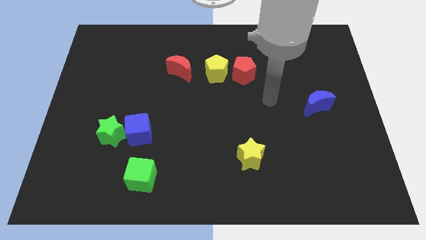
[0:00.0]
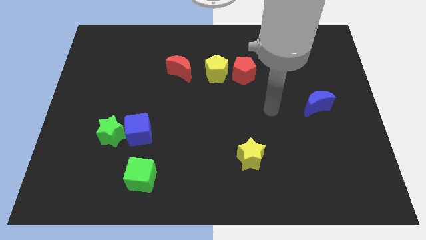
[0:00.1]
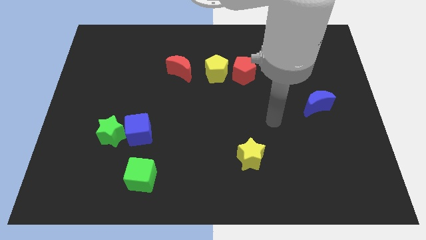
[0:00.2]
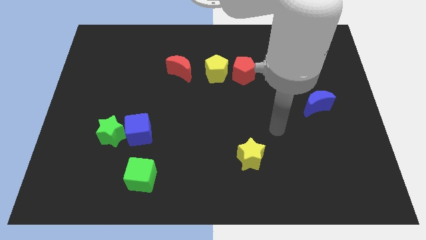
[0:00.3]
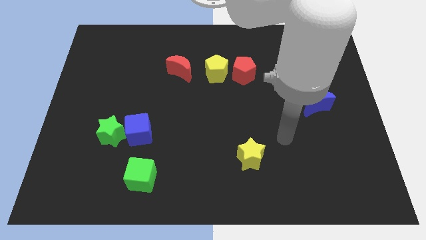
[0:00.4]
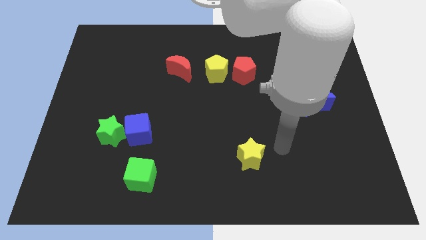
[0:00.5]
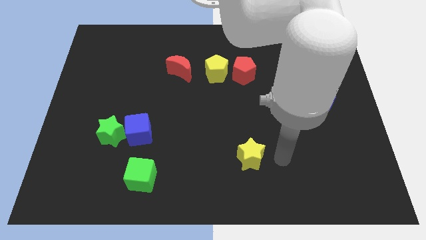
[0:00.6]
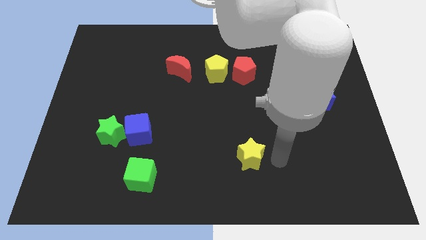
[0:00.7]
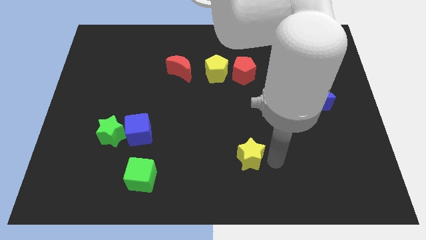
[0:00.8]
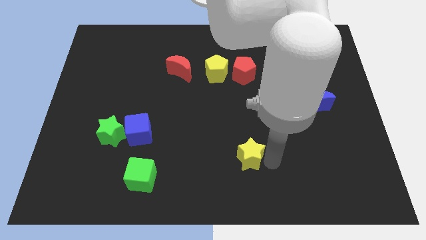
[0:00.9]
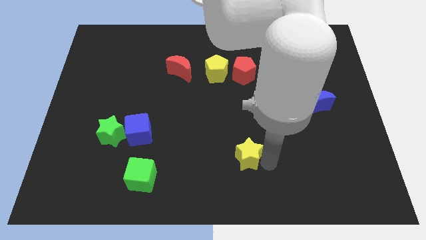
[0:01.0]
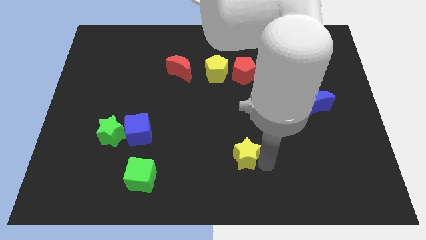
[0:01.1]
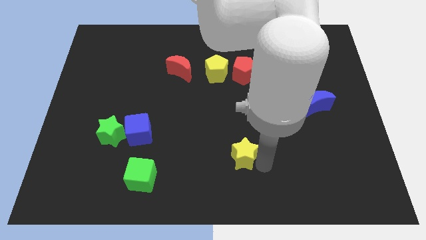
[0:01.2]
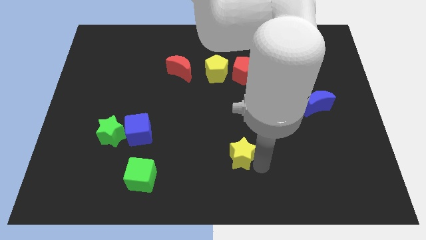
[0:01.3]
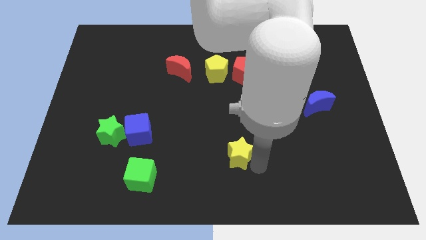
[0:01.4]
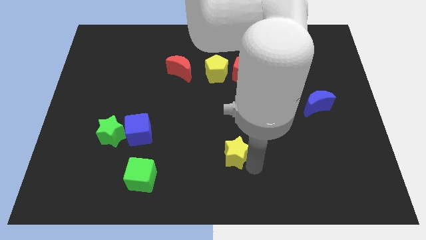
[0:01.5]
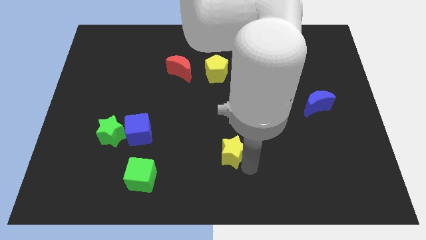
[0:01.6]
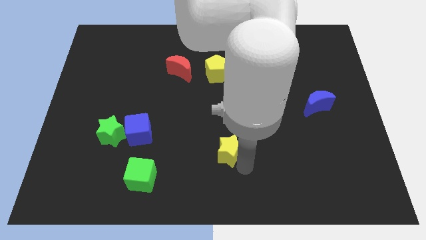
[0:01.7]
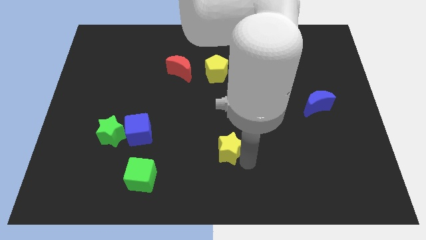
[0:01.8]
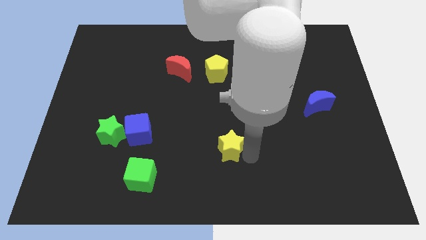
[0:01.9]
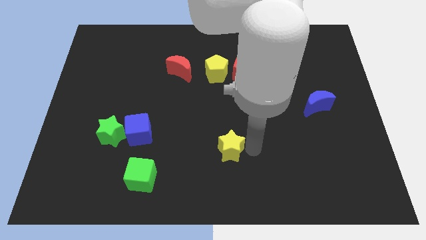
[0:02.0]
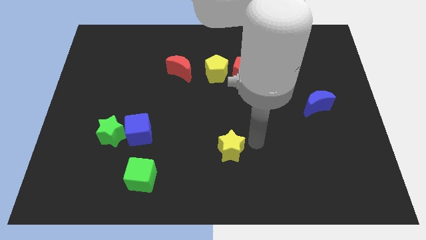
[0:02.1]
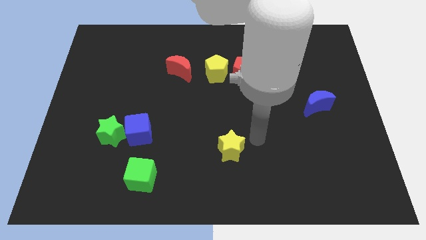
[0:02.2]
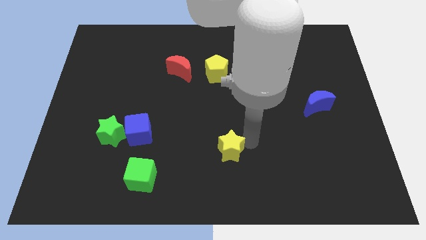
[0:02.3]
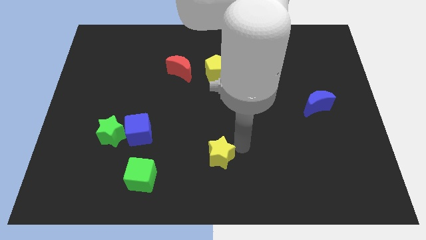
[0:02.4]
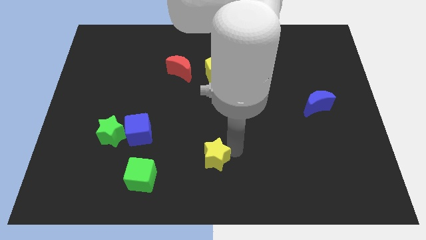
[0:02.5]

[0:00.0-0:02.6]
slightly slide the yellow star left

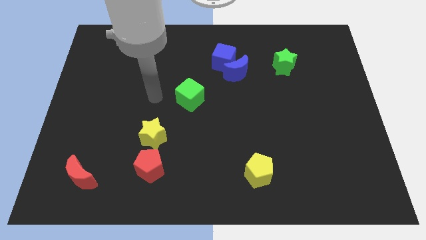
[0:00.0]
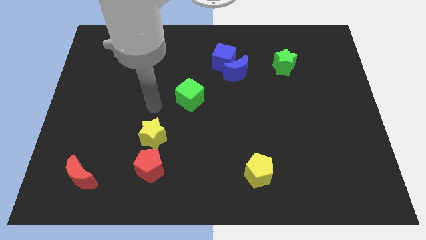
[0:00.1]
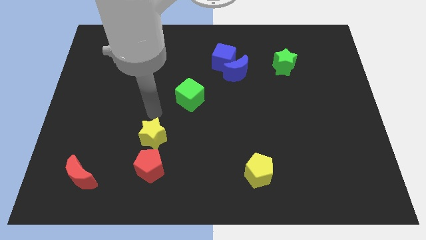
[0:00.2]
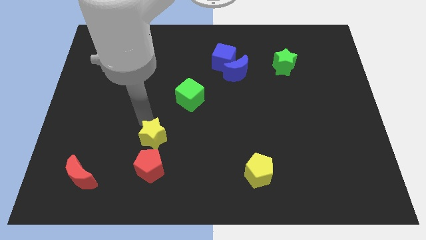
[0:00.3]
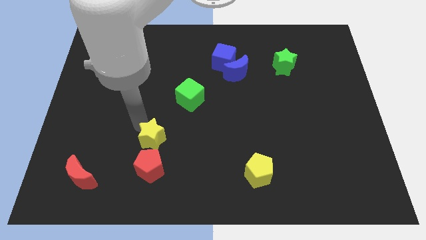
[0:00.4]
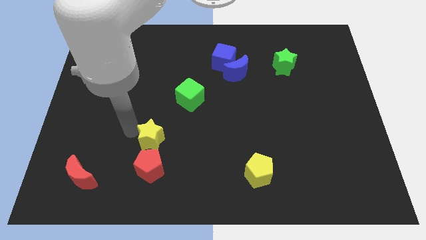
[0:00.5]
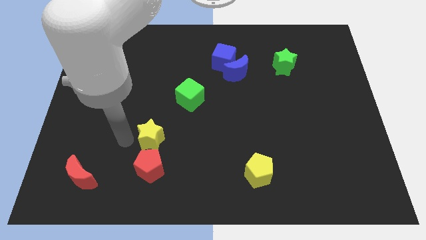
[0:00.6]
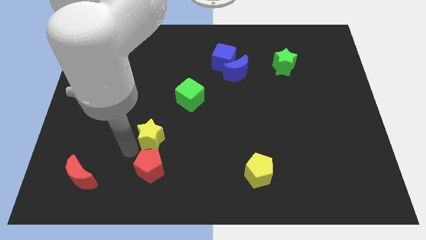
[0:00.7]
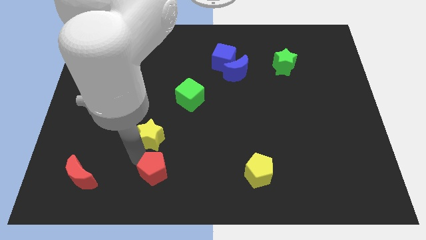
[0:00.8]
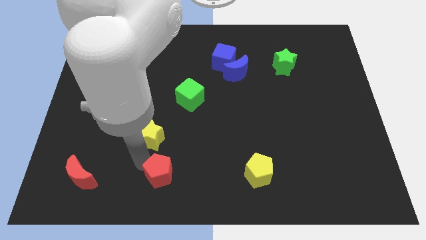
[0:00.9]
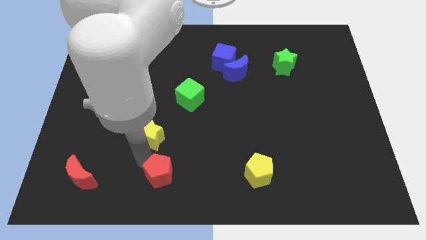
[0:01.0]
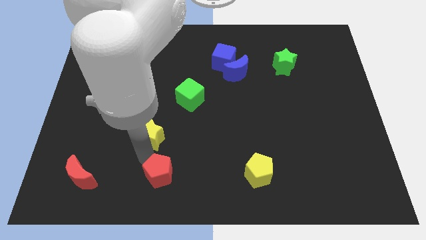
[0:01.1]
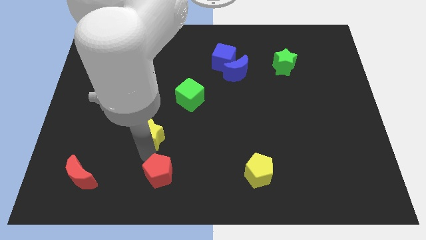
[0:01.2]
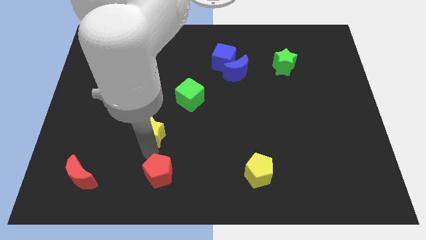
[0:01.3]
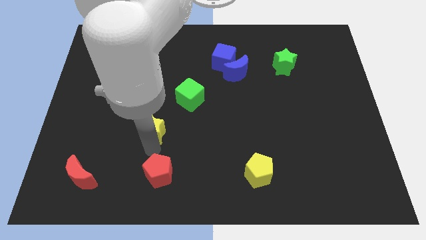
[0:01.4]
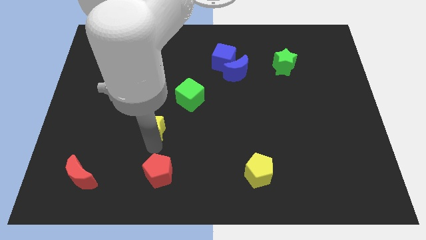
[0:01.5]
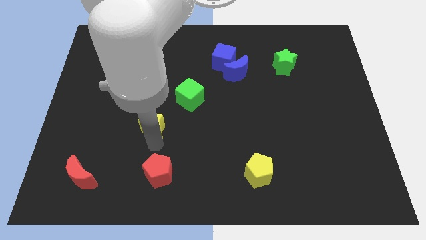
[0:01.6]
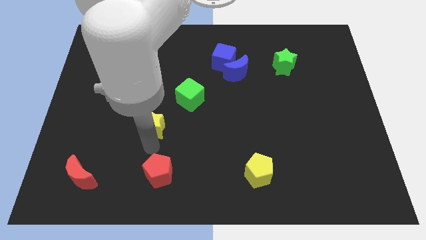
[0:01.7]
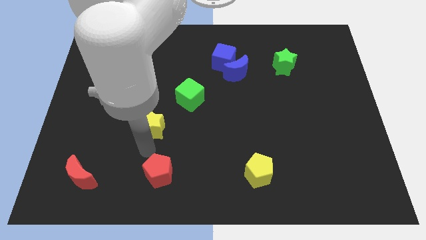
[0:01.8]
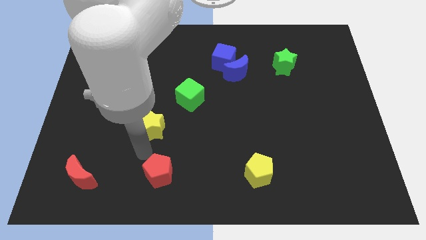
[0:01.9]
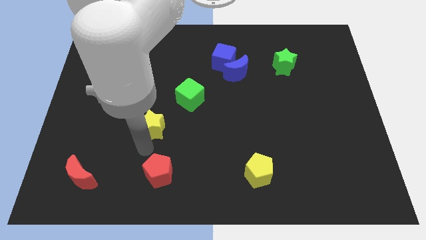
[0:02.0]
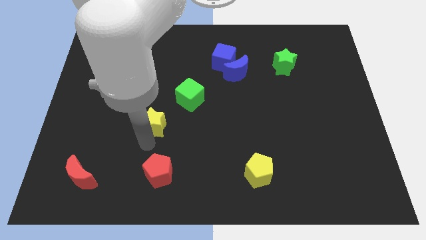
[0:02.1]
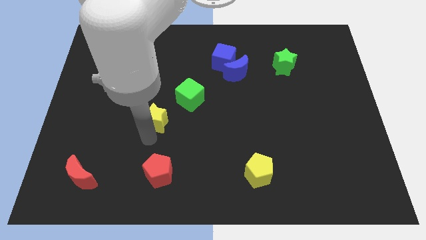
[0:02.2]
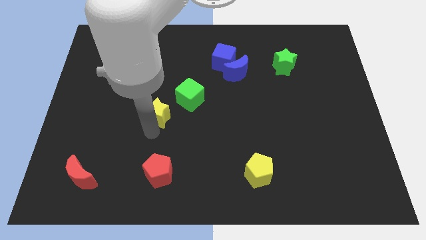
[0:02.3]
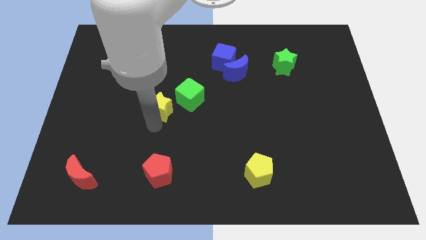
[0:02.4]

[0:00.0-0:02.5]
move the yellow star upwards slightly

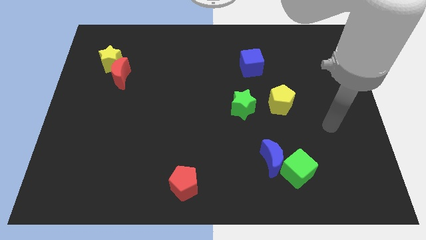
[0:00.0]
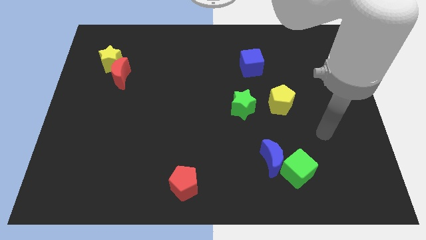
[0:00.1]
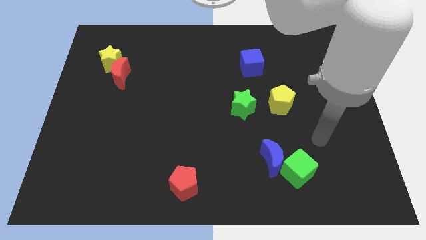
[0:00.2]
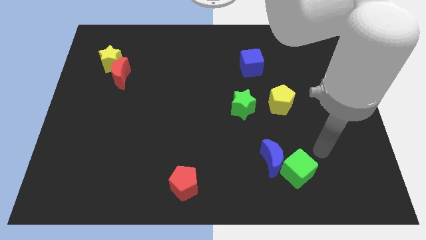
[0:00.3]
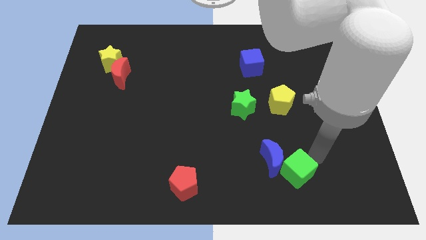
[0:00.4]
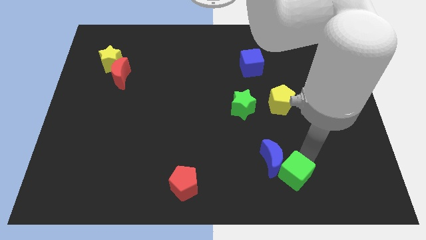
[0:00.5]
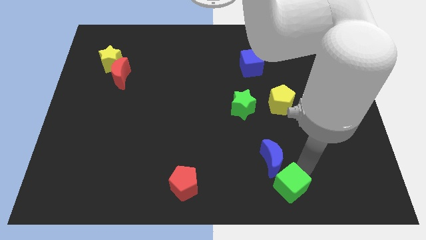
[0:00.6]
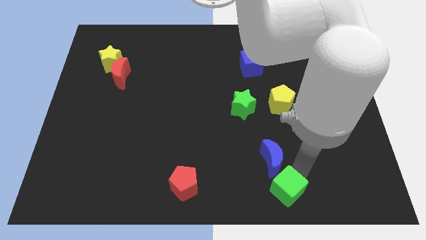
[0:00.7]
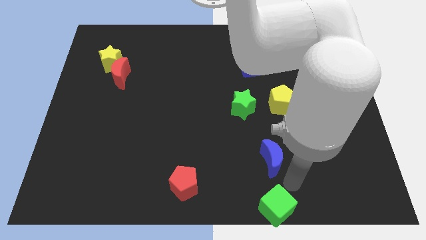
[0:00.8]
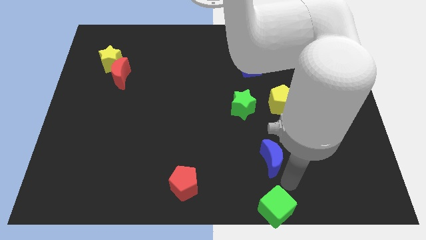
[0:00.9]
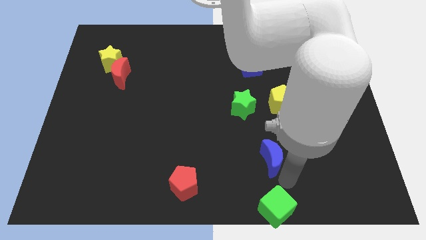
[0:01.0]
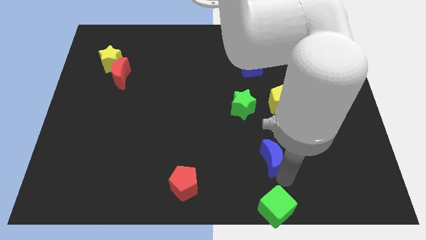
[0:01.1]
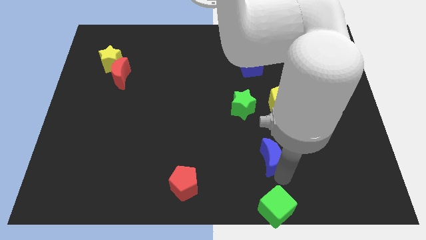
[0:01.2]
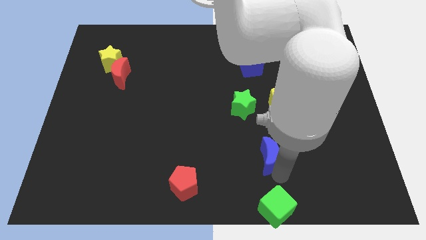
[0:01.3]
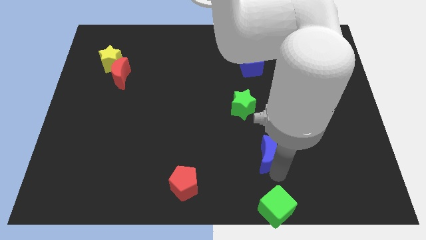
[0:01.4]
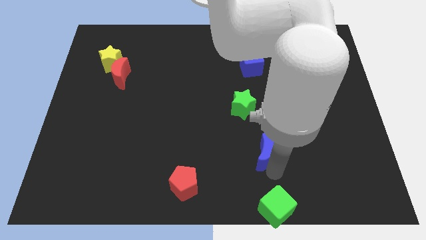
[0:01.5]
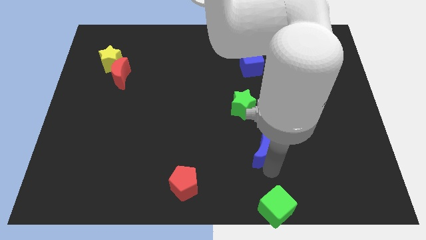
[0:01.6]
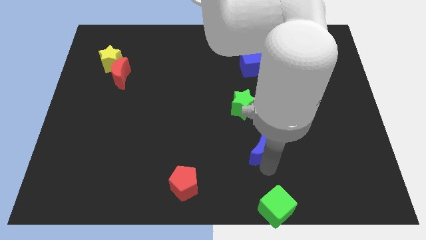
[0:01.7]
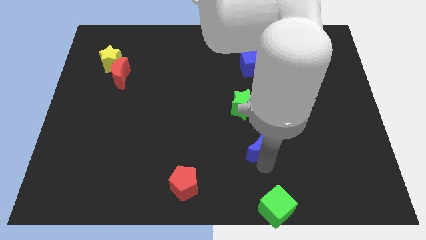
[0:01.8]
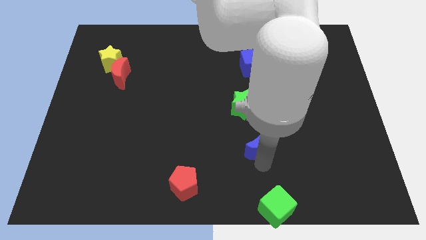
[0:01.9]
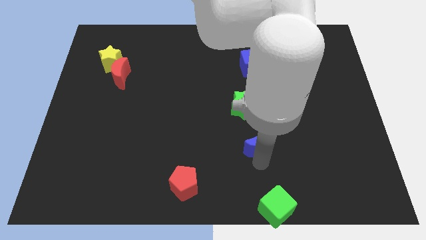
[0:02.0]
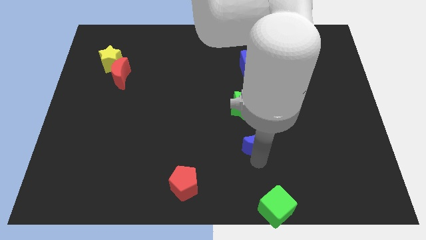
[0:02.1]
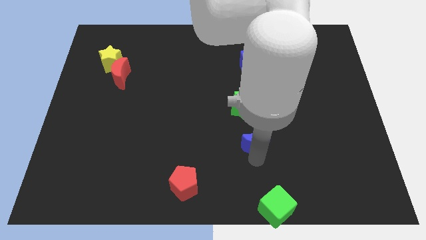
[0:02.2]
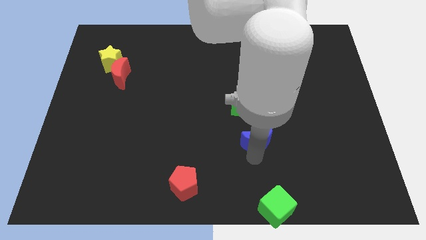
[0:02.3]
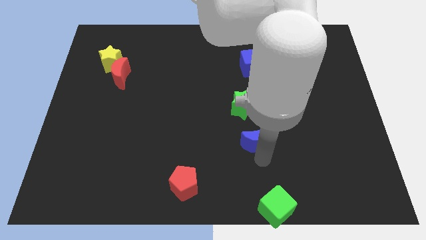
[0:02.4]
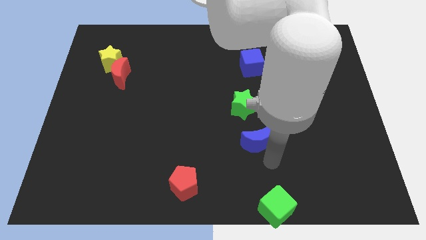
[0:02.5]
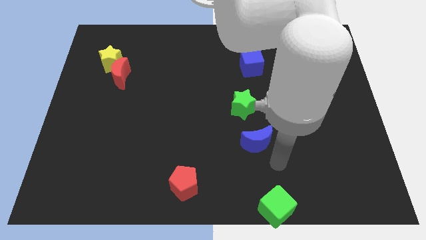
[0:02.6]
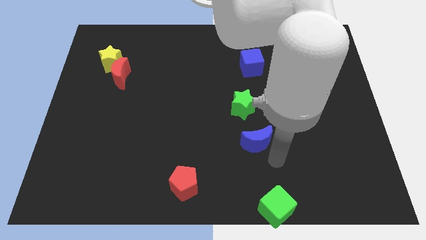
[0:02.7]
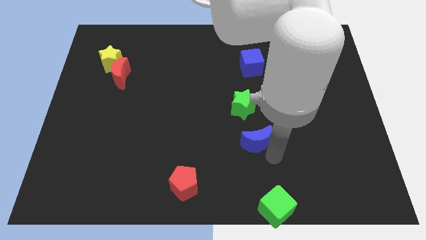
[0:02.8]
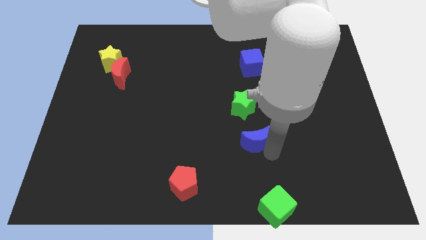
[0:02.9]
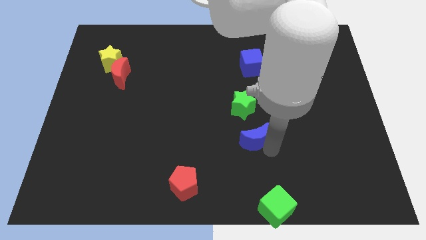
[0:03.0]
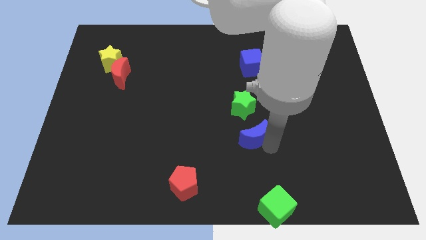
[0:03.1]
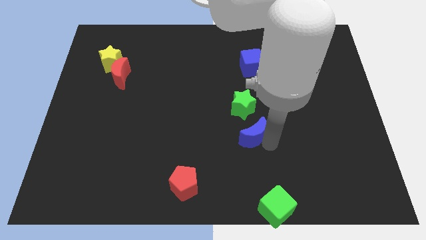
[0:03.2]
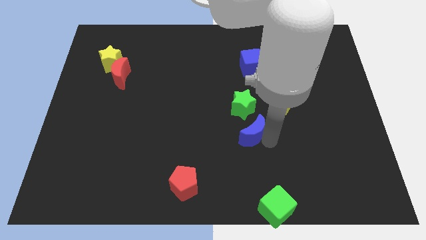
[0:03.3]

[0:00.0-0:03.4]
slightly push the blue moon diagonally upwards and left
